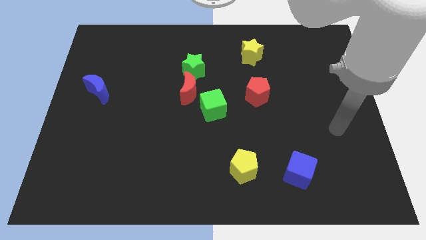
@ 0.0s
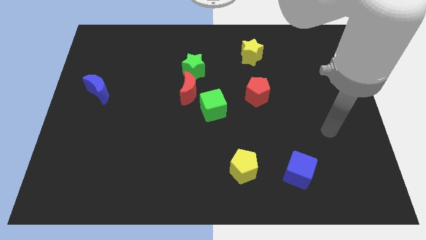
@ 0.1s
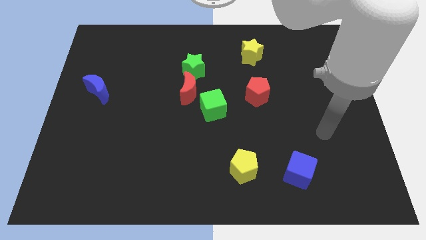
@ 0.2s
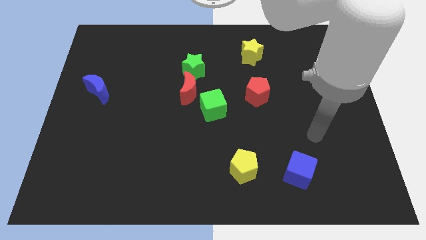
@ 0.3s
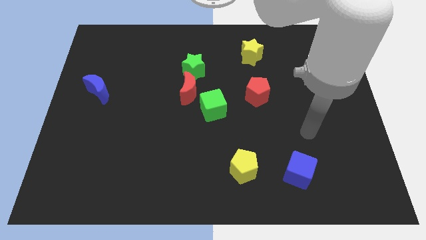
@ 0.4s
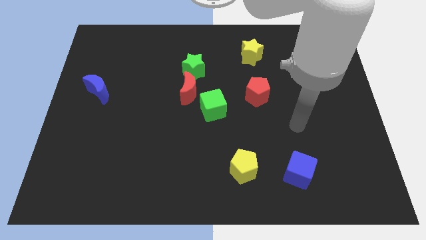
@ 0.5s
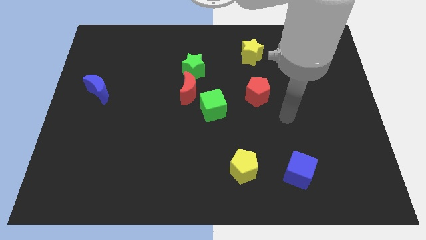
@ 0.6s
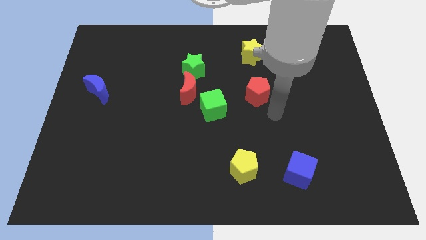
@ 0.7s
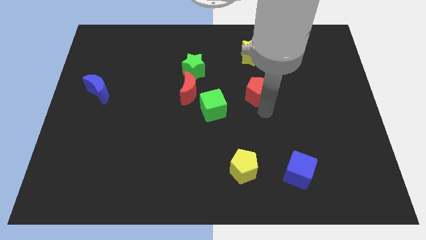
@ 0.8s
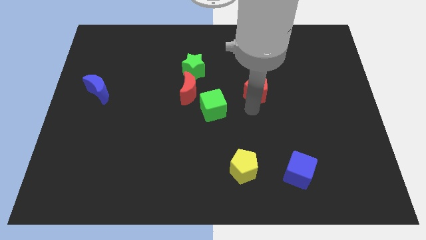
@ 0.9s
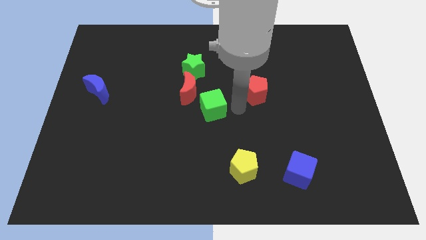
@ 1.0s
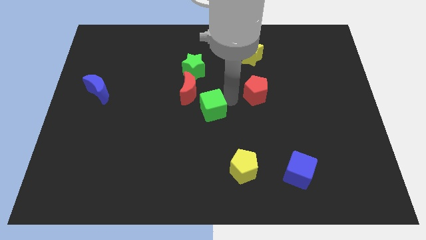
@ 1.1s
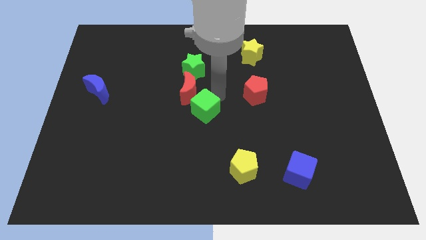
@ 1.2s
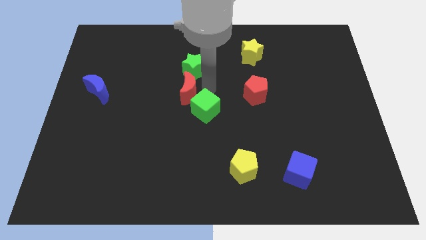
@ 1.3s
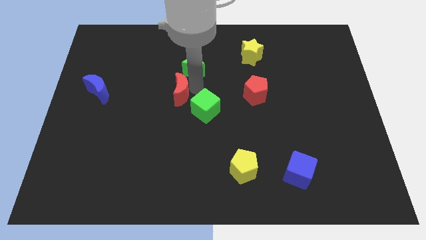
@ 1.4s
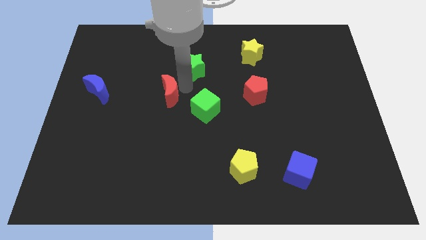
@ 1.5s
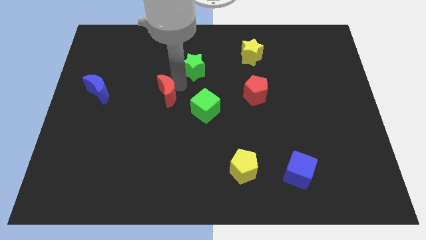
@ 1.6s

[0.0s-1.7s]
separate the green star from the red moon

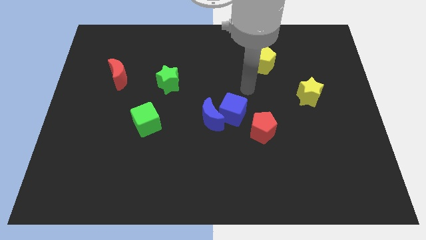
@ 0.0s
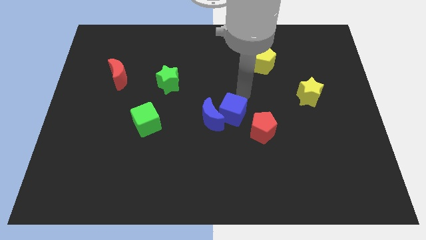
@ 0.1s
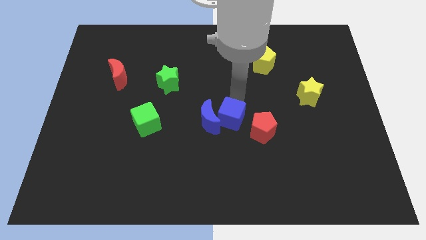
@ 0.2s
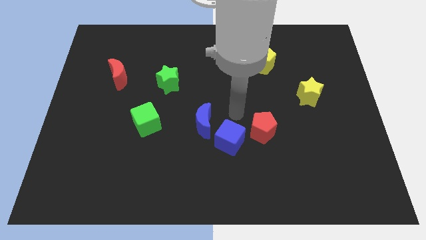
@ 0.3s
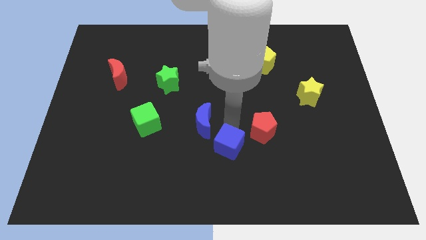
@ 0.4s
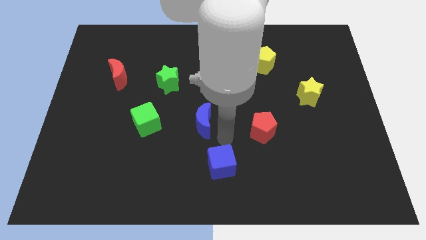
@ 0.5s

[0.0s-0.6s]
move the blue moon away from the blue cube

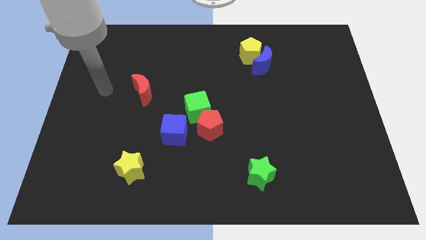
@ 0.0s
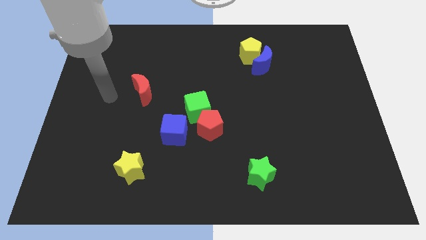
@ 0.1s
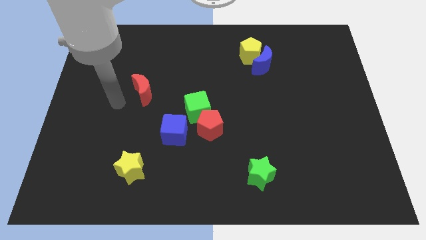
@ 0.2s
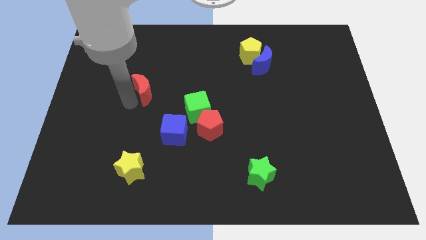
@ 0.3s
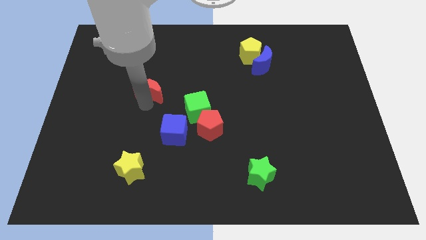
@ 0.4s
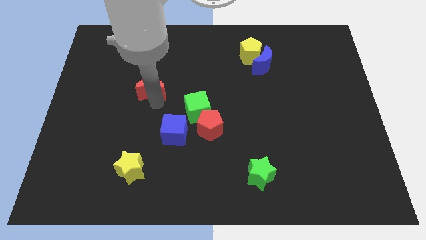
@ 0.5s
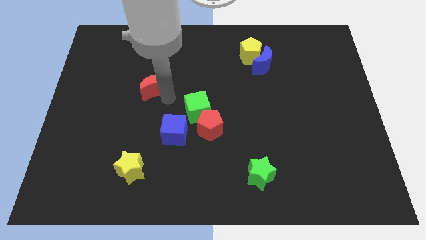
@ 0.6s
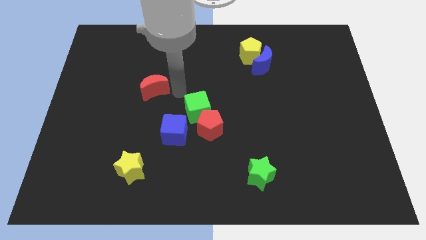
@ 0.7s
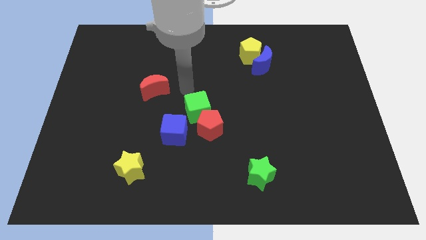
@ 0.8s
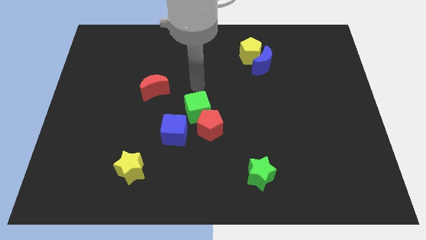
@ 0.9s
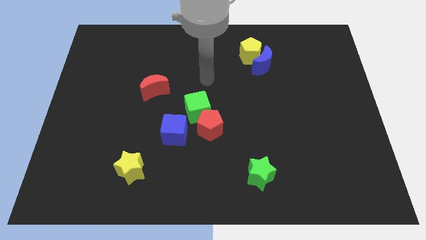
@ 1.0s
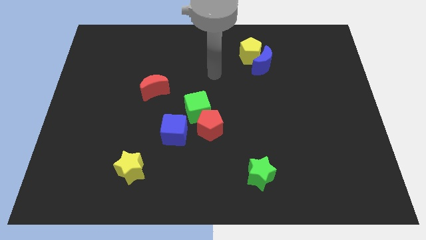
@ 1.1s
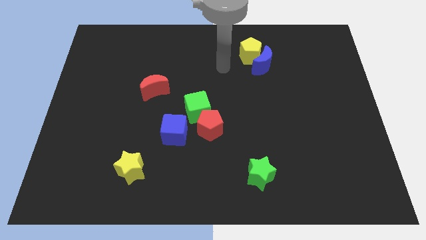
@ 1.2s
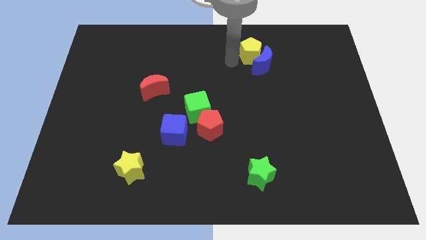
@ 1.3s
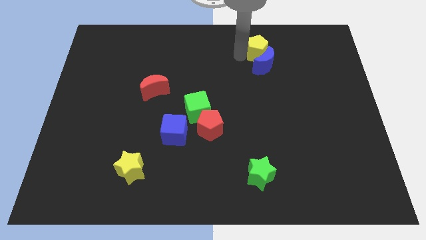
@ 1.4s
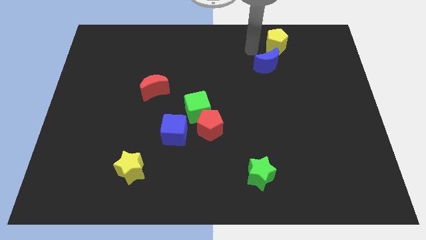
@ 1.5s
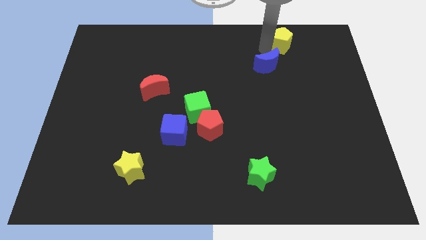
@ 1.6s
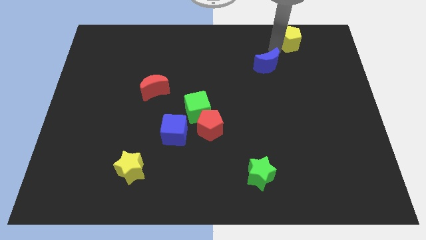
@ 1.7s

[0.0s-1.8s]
pull the blue moon apart from the yellow pentagon

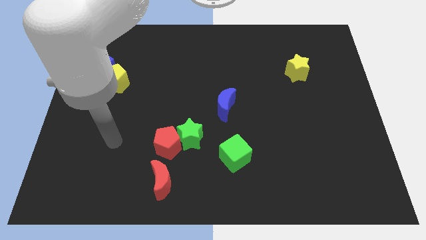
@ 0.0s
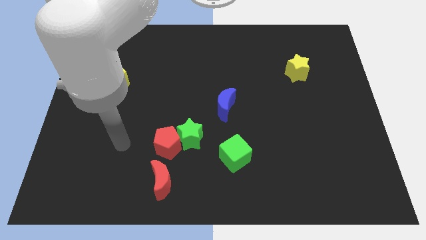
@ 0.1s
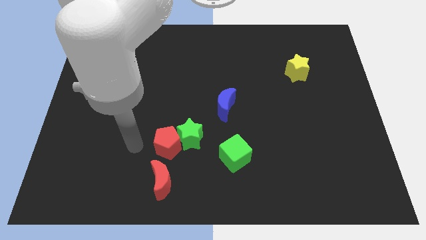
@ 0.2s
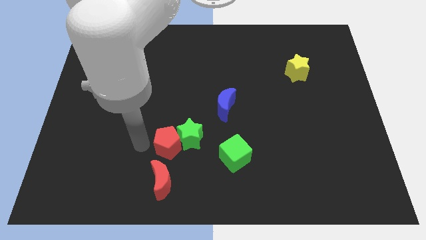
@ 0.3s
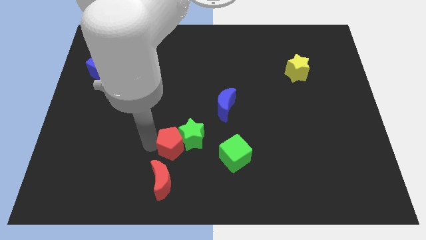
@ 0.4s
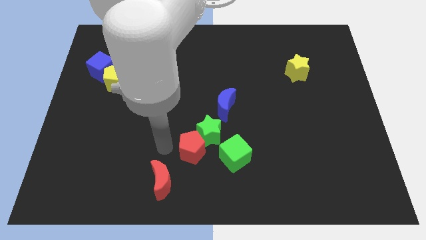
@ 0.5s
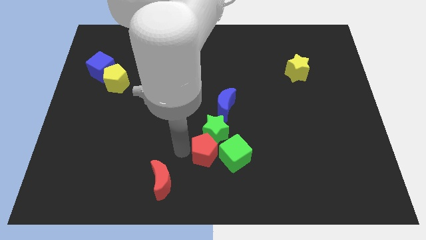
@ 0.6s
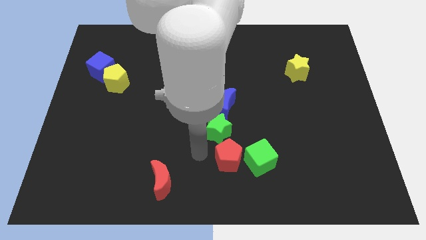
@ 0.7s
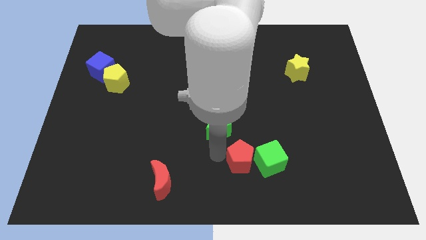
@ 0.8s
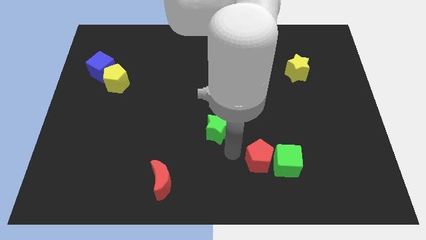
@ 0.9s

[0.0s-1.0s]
pull the green star apart from the red pentagon

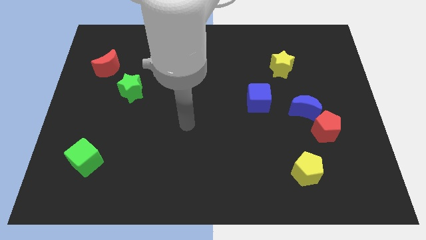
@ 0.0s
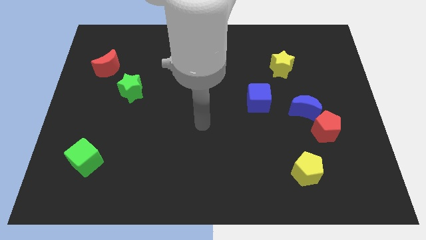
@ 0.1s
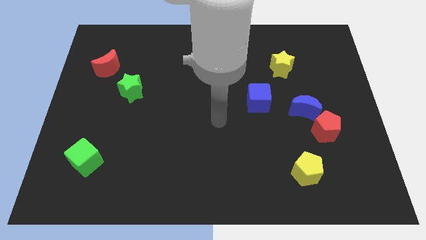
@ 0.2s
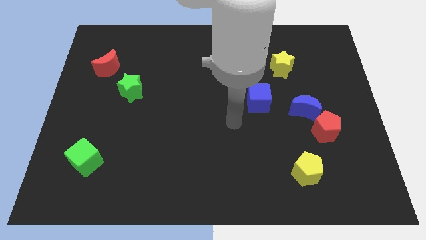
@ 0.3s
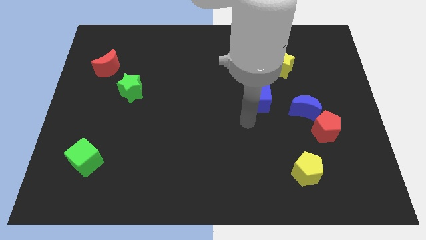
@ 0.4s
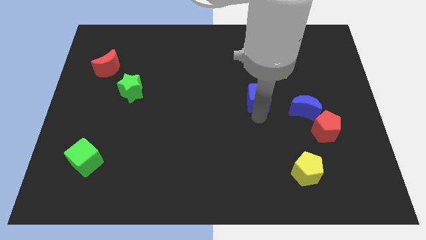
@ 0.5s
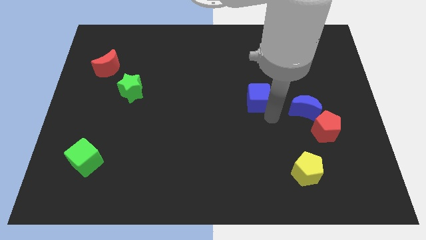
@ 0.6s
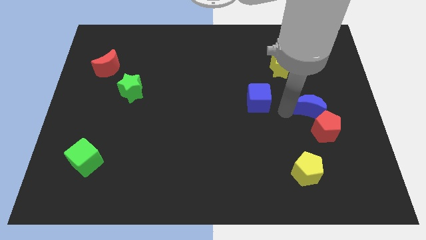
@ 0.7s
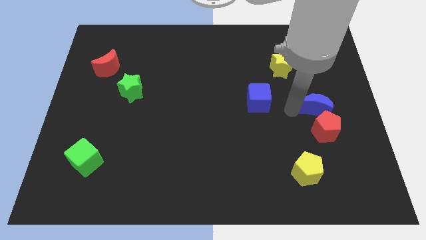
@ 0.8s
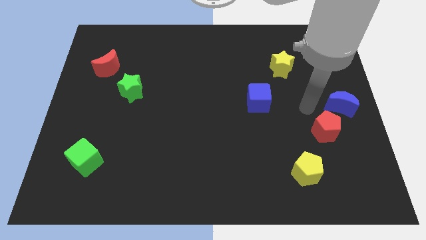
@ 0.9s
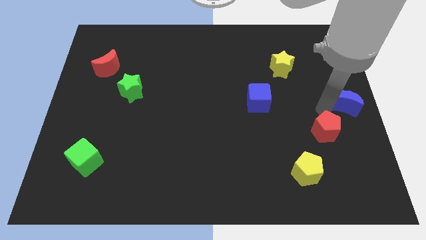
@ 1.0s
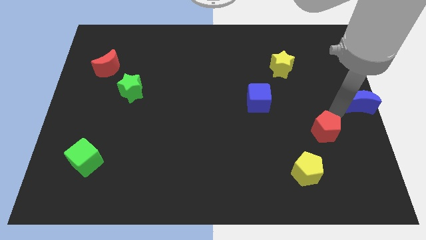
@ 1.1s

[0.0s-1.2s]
move the red pentagon away from the blue moon

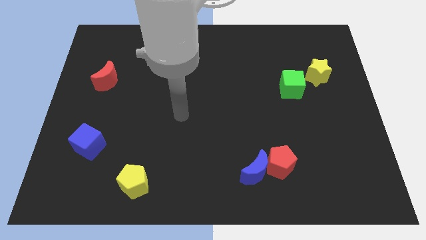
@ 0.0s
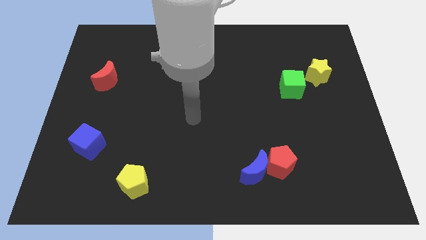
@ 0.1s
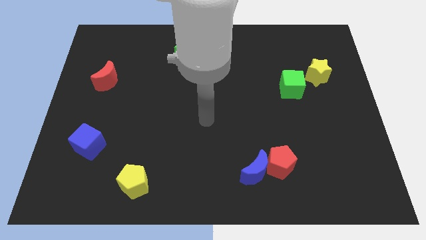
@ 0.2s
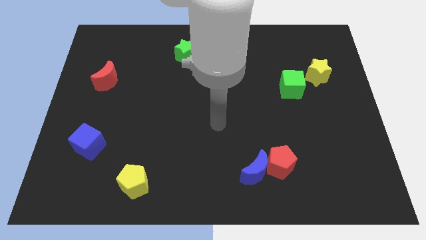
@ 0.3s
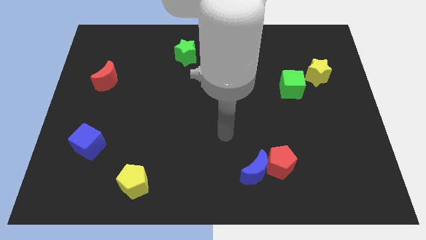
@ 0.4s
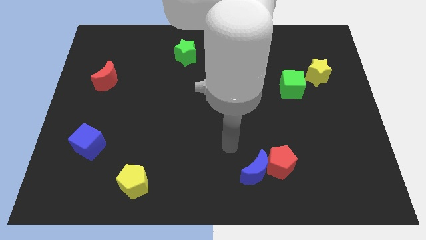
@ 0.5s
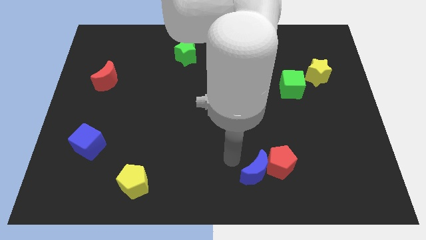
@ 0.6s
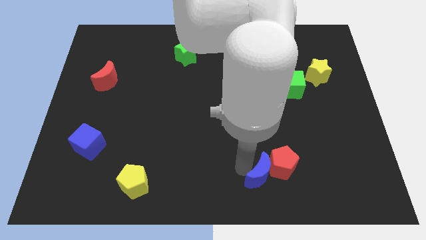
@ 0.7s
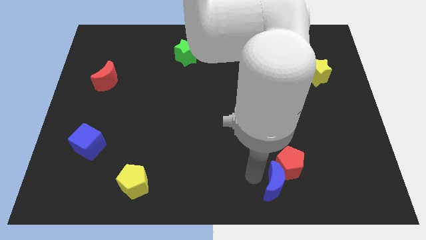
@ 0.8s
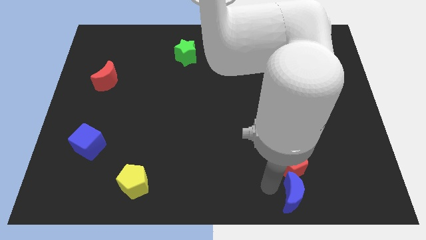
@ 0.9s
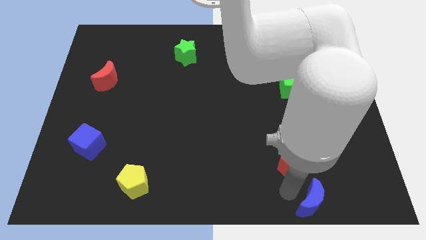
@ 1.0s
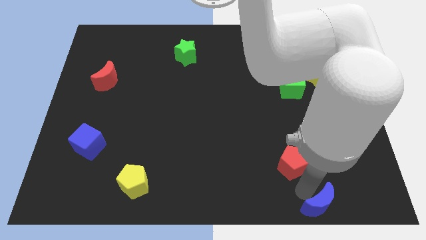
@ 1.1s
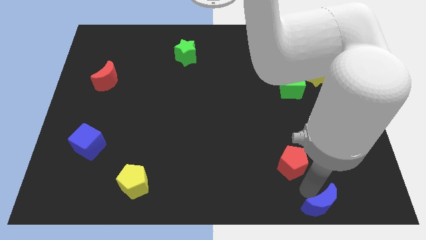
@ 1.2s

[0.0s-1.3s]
pull the red pentagon apart from the blue moon

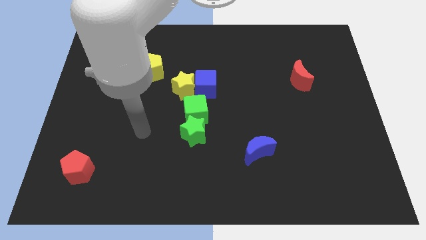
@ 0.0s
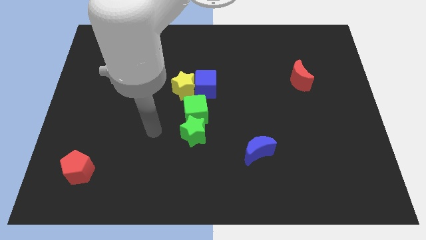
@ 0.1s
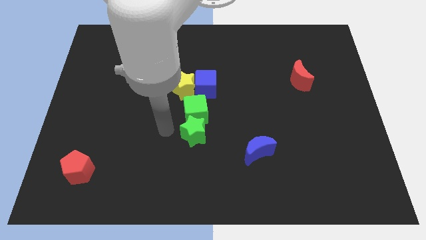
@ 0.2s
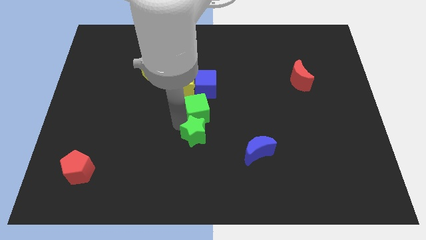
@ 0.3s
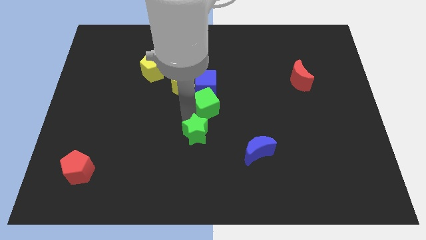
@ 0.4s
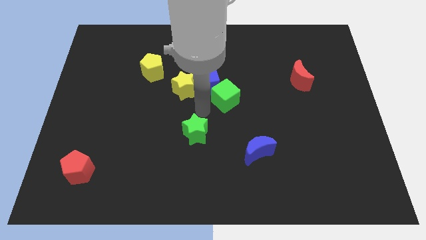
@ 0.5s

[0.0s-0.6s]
separate the green star from the green cube

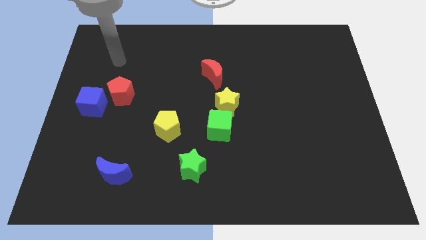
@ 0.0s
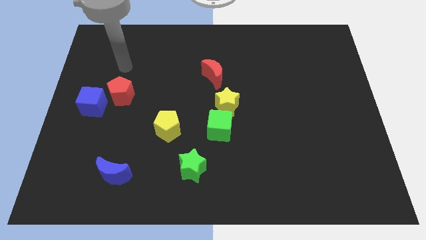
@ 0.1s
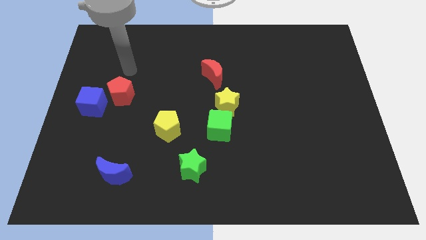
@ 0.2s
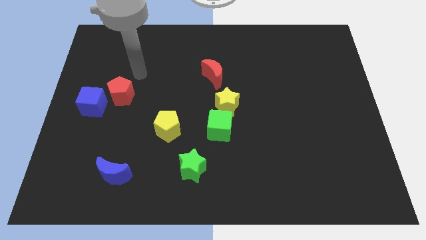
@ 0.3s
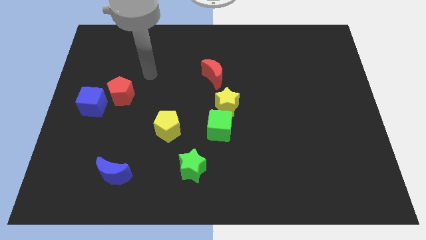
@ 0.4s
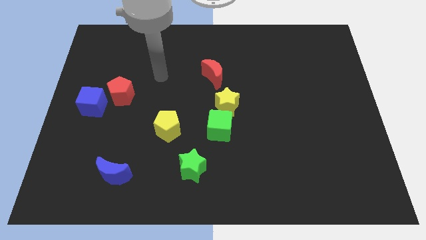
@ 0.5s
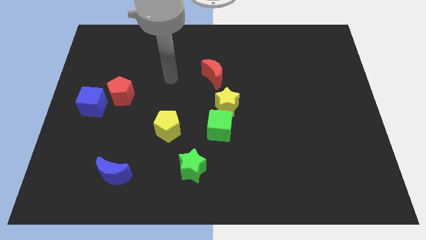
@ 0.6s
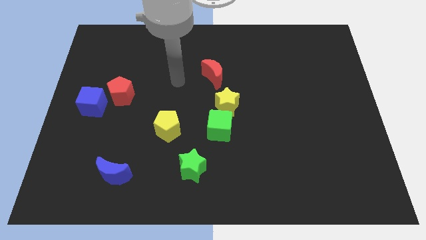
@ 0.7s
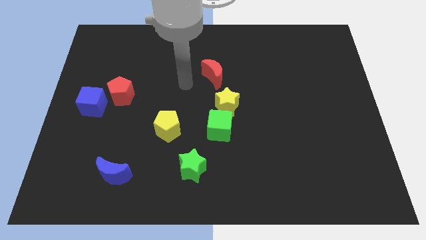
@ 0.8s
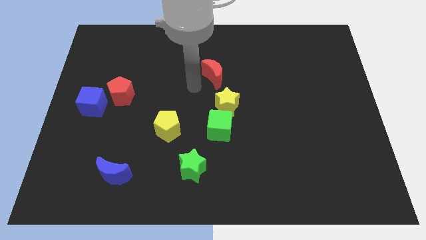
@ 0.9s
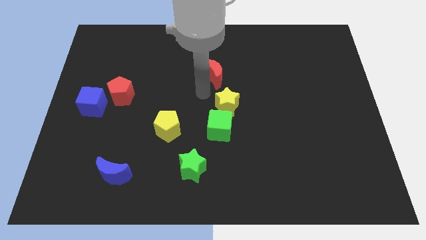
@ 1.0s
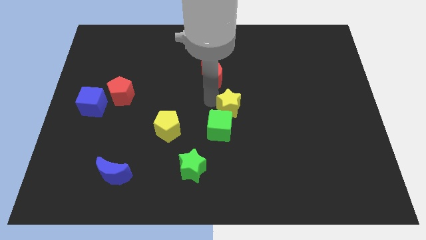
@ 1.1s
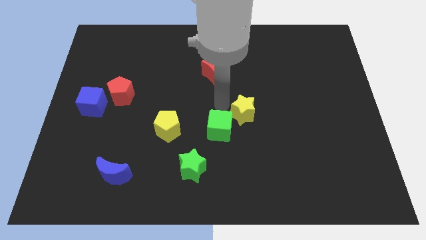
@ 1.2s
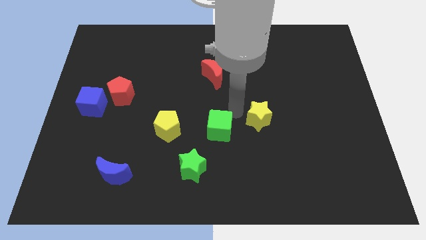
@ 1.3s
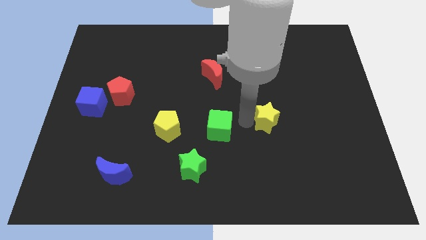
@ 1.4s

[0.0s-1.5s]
separate the green cube from the yellow star
